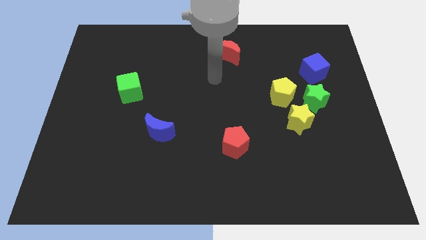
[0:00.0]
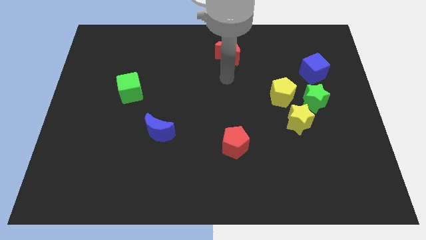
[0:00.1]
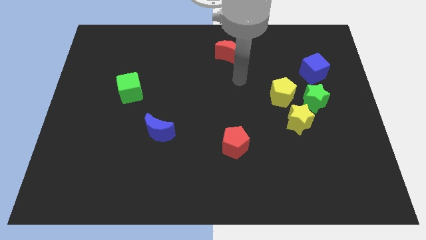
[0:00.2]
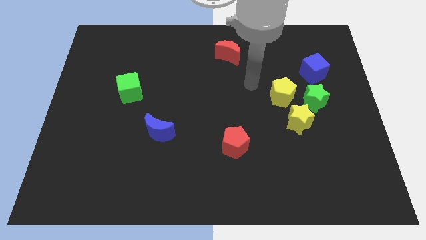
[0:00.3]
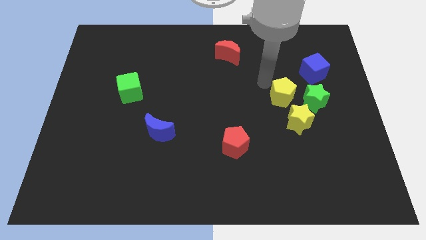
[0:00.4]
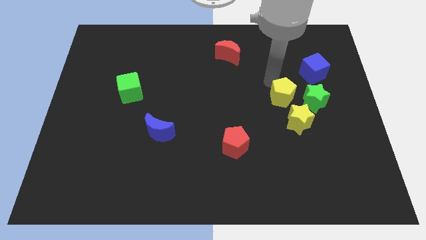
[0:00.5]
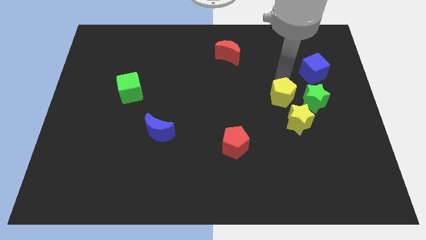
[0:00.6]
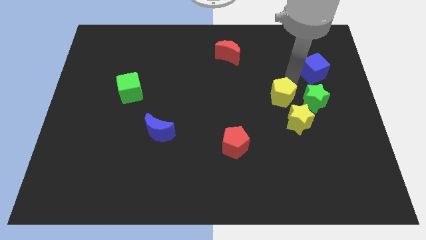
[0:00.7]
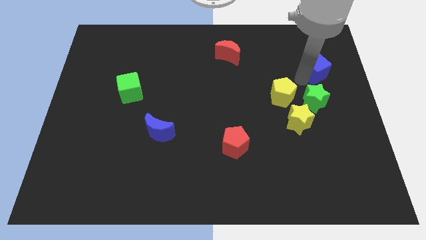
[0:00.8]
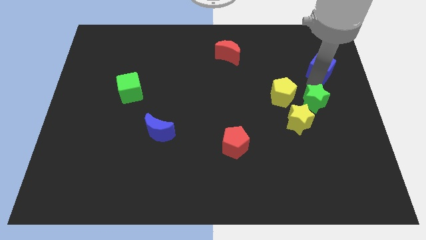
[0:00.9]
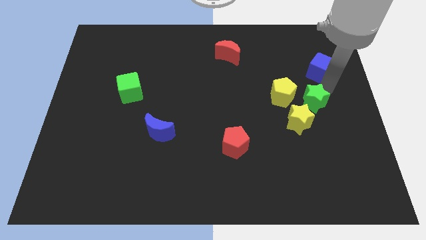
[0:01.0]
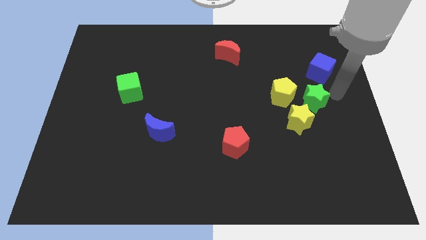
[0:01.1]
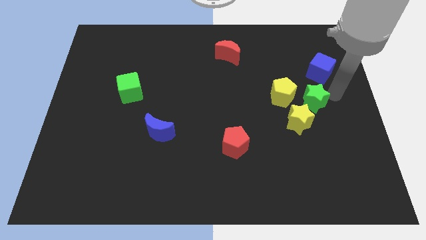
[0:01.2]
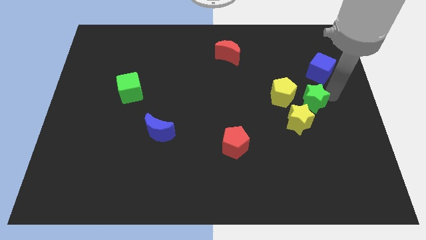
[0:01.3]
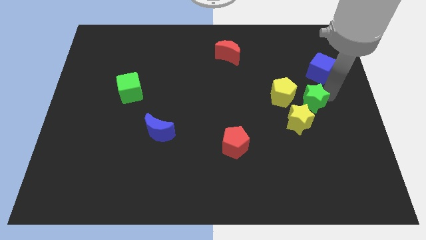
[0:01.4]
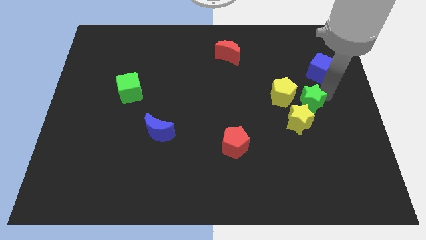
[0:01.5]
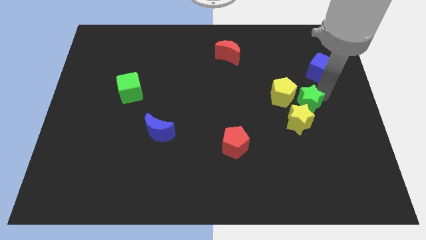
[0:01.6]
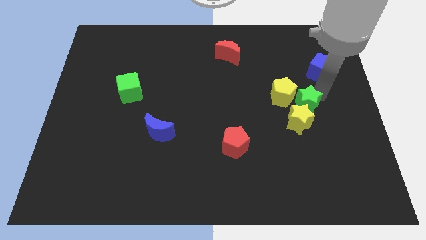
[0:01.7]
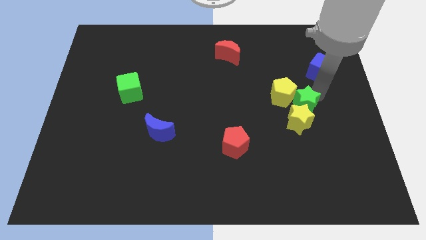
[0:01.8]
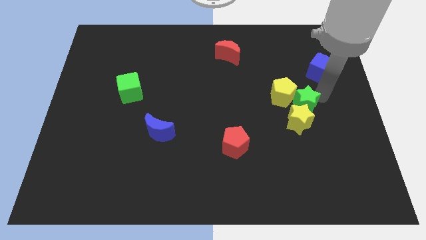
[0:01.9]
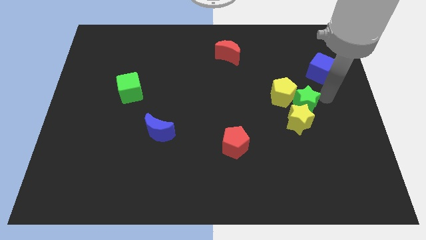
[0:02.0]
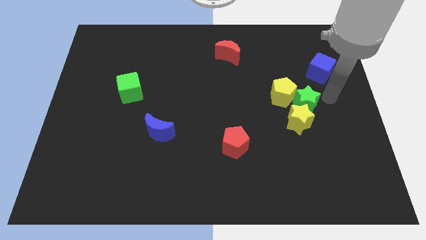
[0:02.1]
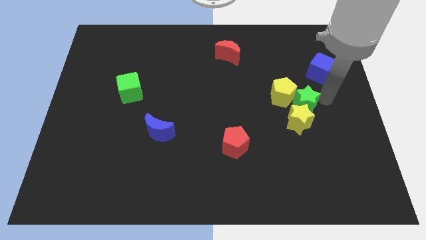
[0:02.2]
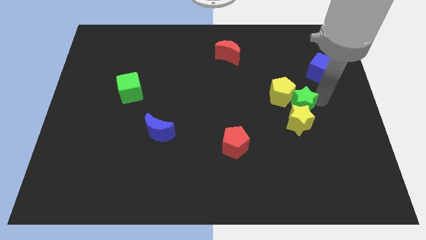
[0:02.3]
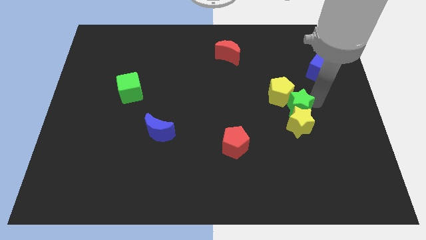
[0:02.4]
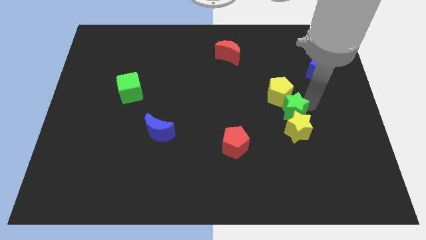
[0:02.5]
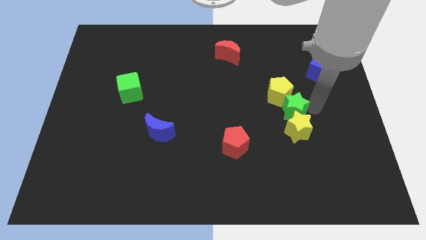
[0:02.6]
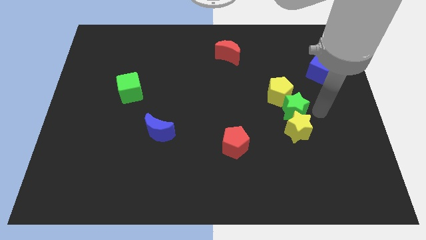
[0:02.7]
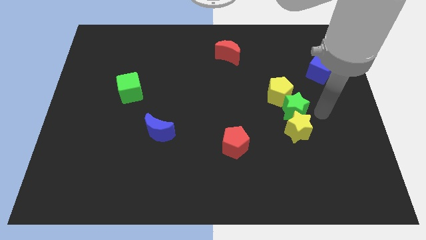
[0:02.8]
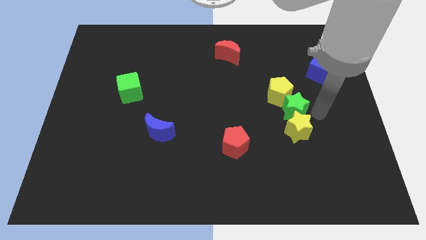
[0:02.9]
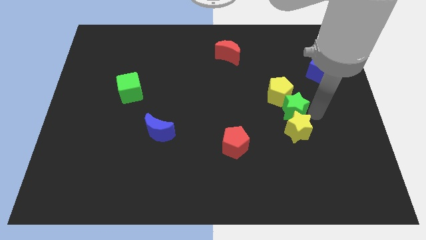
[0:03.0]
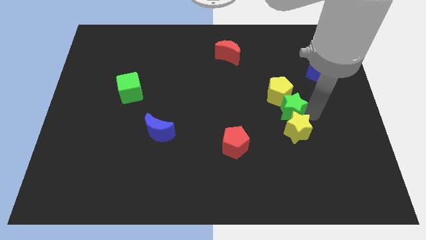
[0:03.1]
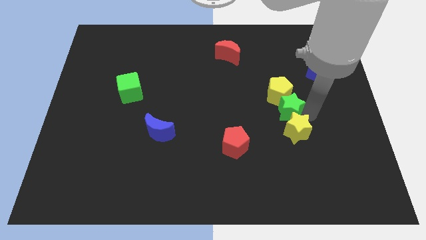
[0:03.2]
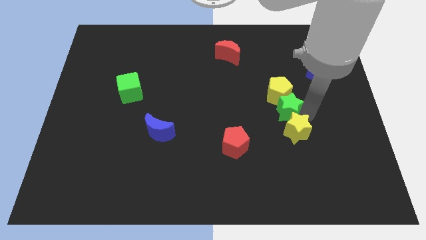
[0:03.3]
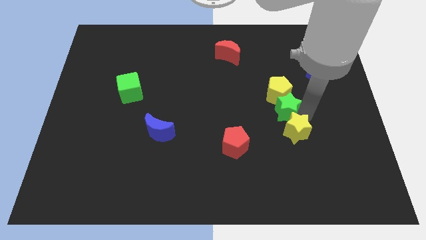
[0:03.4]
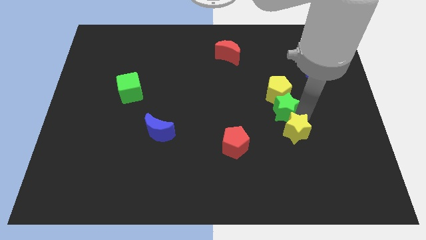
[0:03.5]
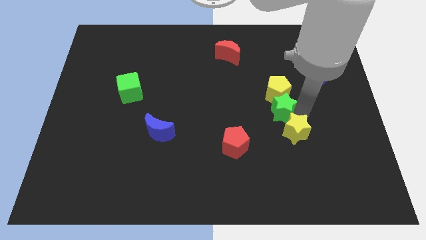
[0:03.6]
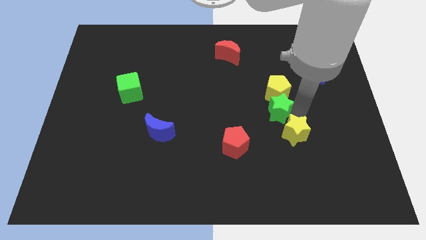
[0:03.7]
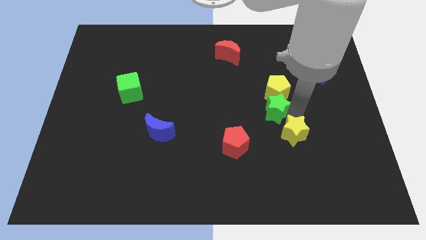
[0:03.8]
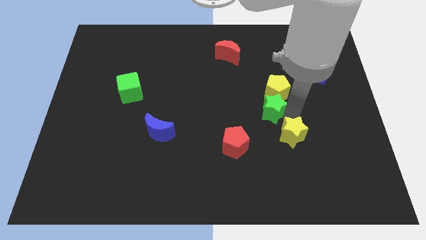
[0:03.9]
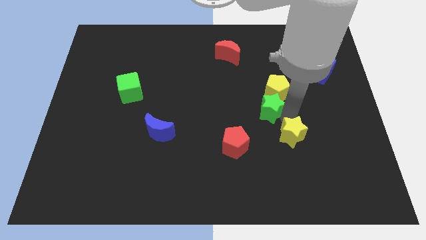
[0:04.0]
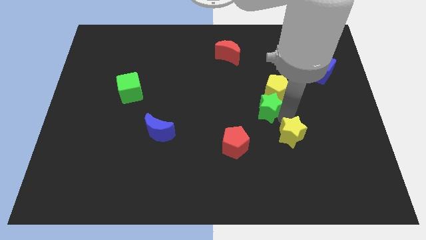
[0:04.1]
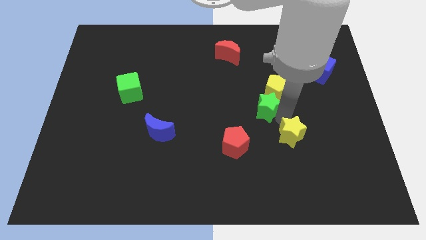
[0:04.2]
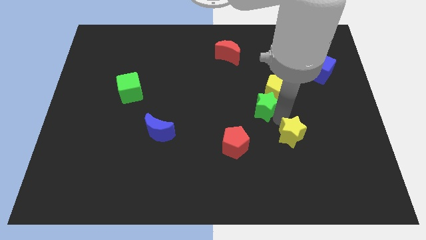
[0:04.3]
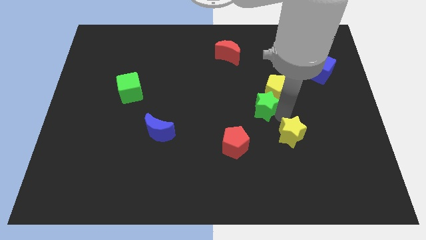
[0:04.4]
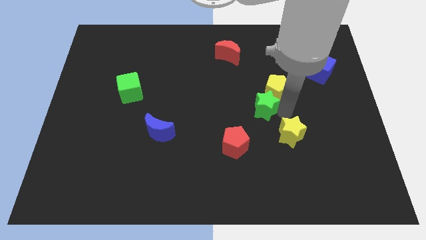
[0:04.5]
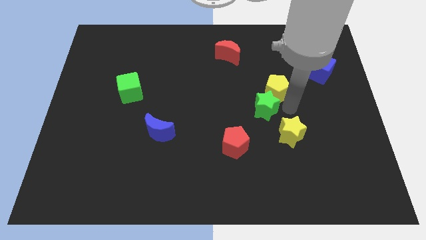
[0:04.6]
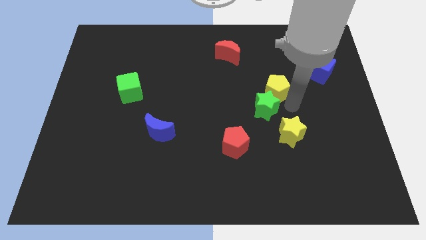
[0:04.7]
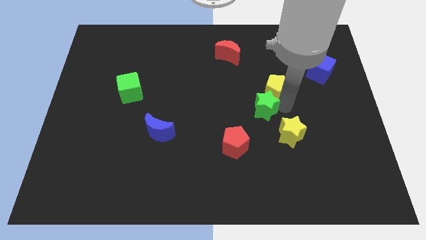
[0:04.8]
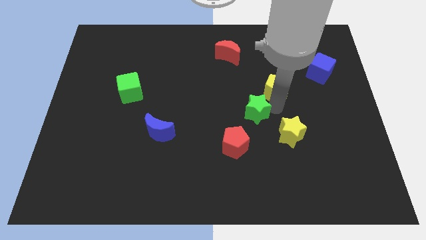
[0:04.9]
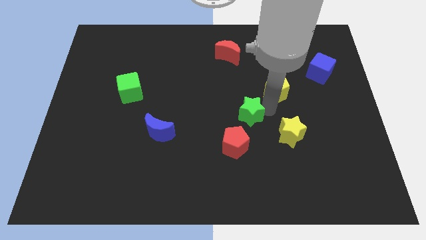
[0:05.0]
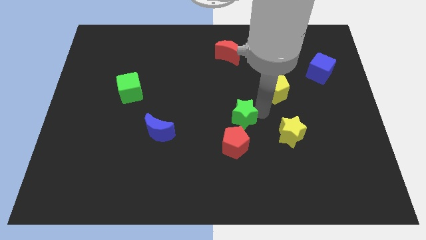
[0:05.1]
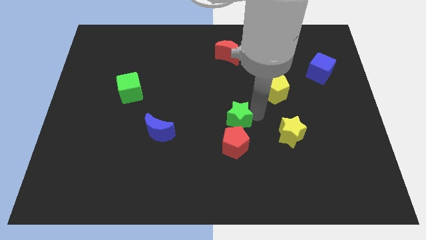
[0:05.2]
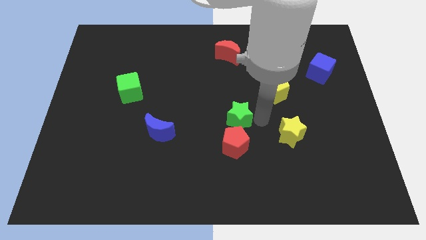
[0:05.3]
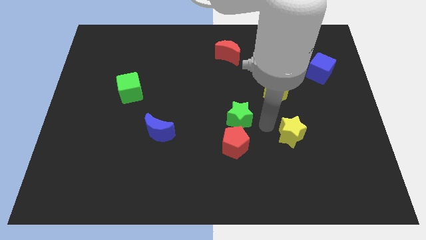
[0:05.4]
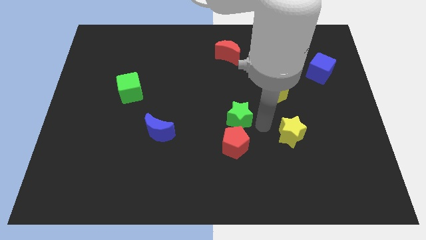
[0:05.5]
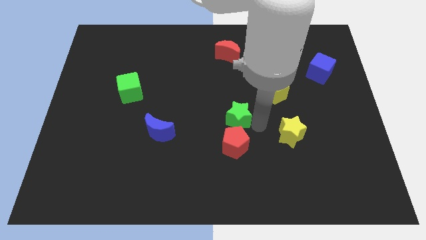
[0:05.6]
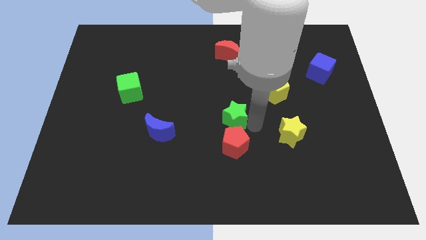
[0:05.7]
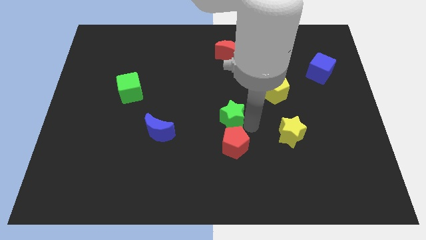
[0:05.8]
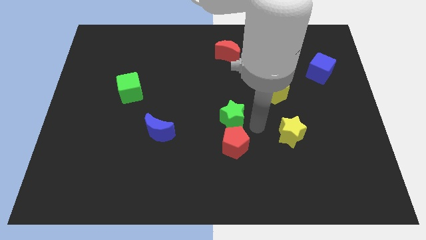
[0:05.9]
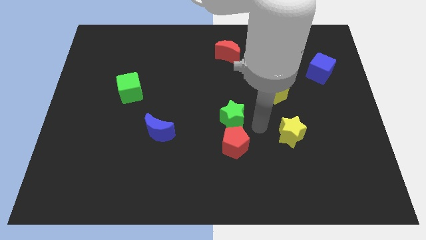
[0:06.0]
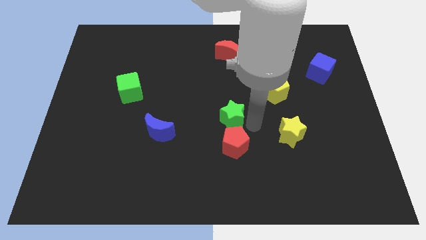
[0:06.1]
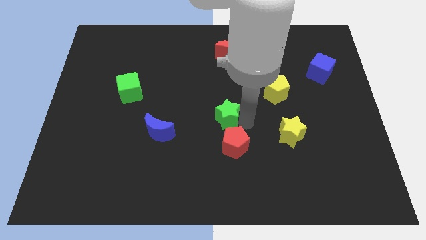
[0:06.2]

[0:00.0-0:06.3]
move the green star left

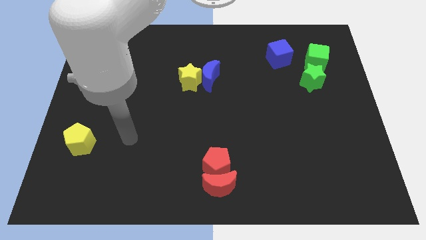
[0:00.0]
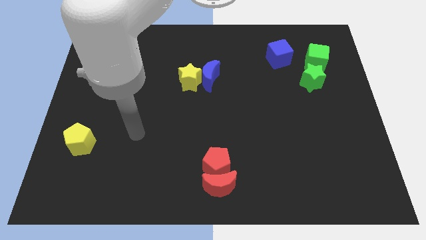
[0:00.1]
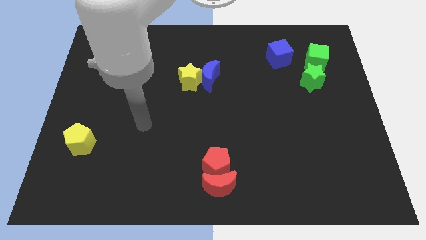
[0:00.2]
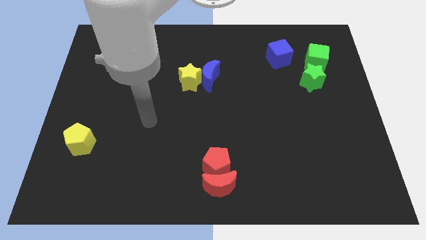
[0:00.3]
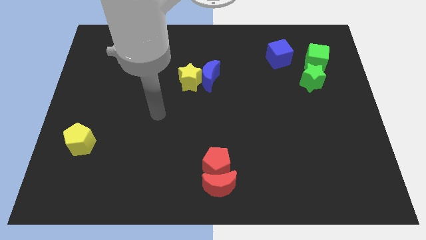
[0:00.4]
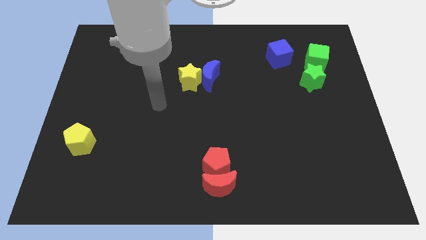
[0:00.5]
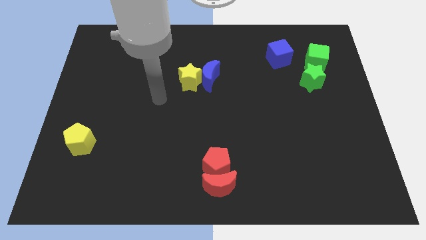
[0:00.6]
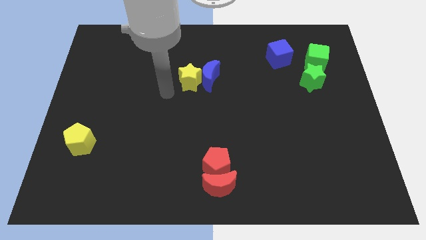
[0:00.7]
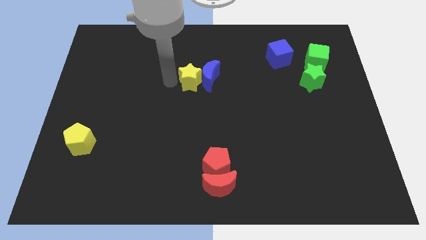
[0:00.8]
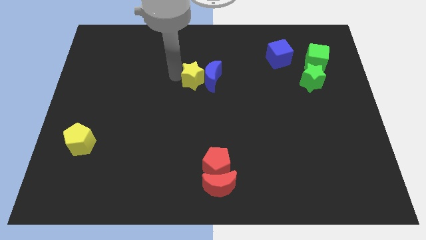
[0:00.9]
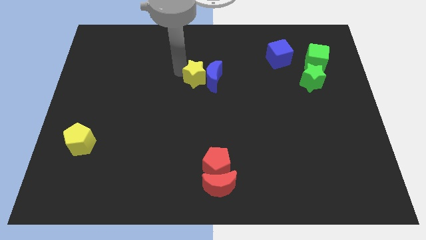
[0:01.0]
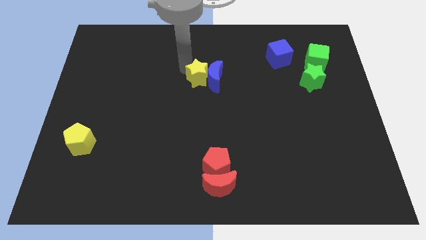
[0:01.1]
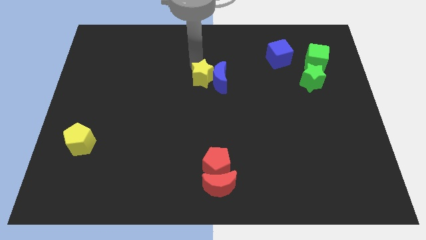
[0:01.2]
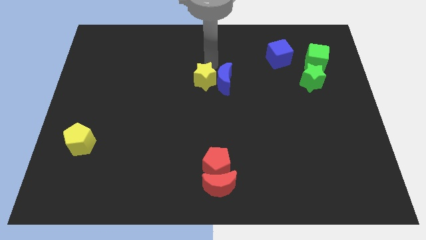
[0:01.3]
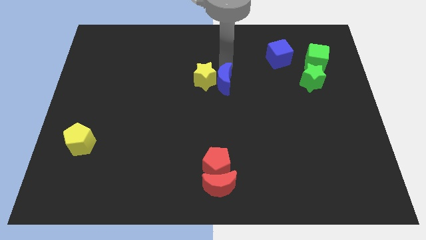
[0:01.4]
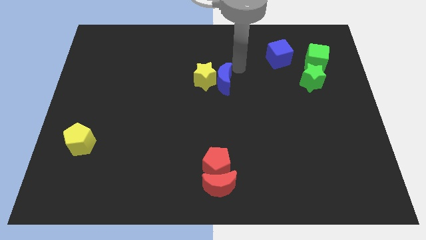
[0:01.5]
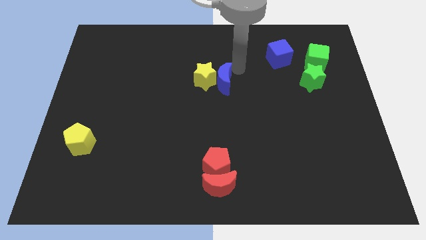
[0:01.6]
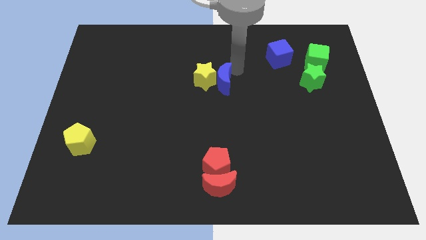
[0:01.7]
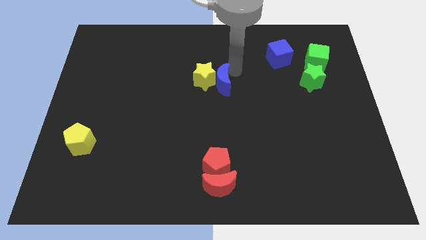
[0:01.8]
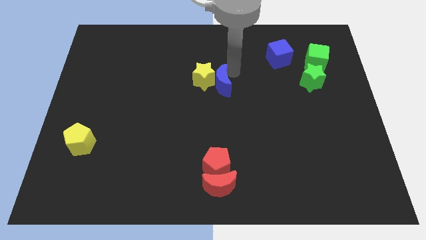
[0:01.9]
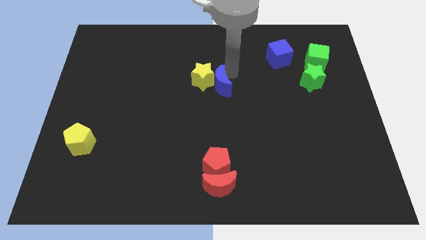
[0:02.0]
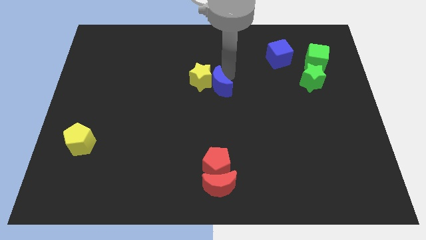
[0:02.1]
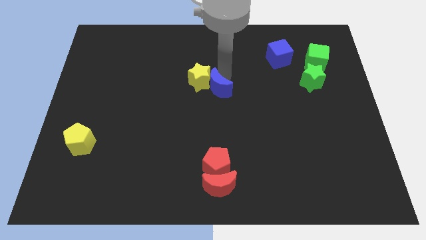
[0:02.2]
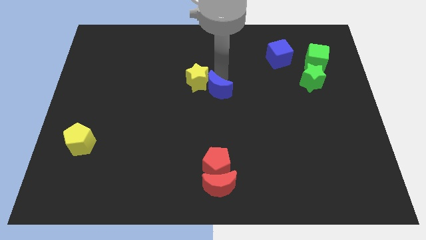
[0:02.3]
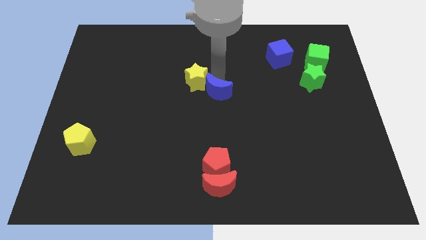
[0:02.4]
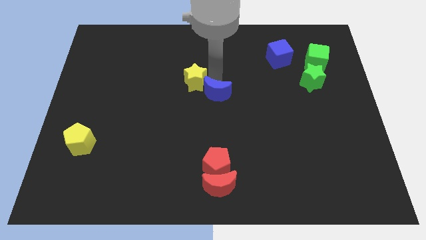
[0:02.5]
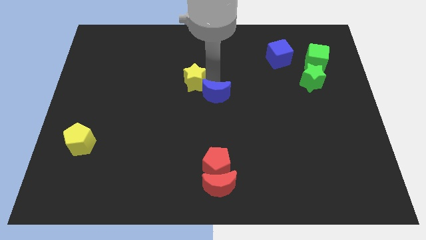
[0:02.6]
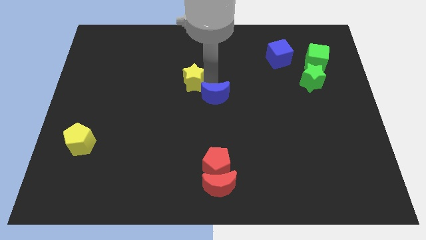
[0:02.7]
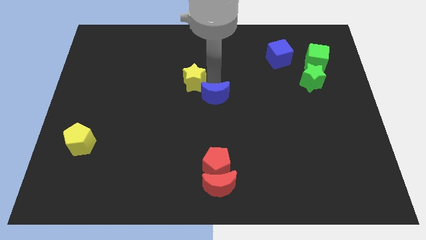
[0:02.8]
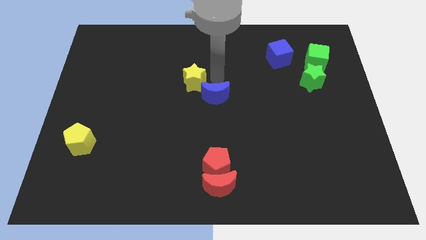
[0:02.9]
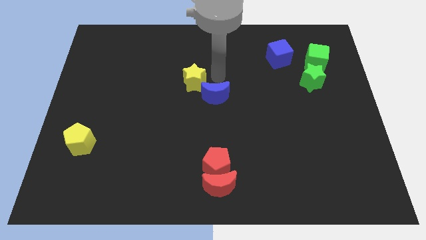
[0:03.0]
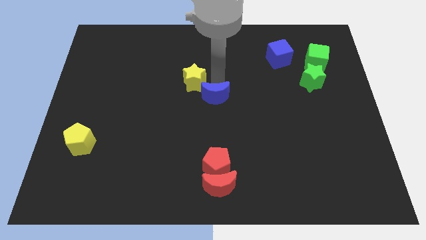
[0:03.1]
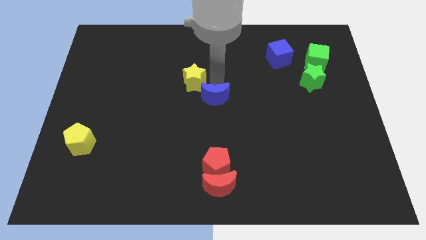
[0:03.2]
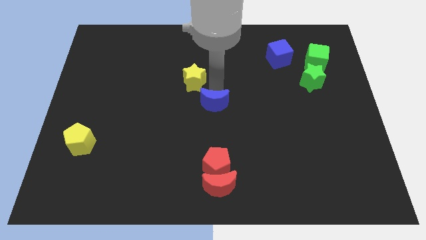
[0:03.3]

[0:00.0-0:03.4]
move the blue moon downwards a bit
